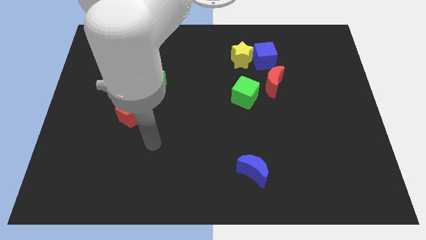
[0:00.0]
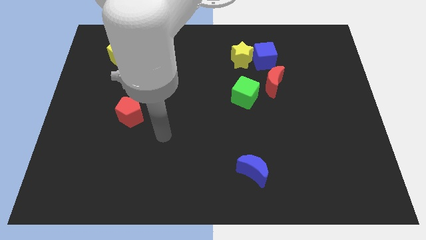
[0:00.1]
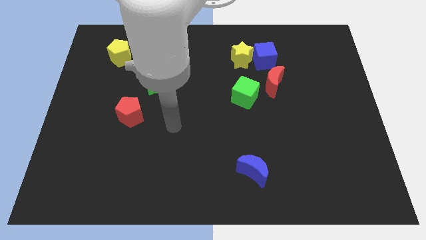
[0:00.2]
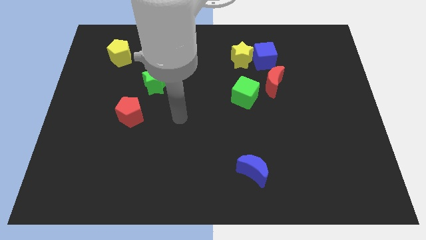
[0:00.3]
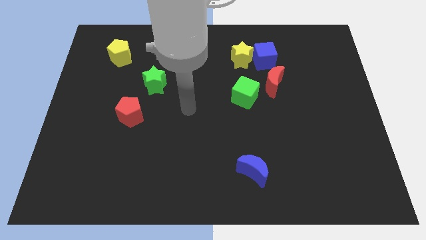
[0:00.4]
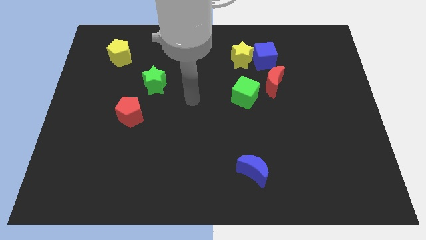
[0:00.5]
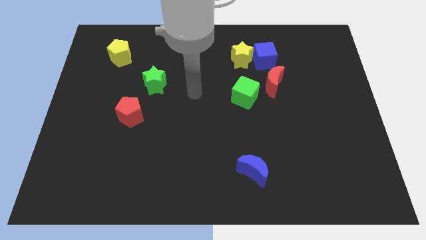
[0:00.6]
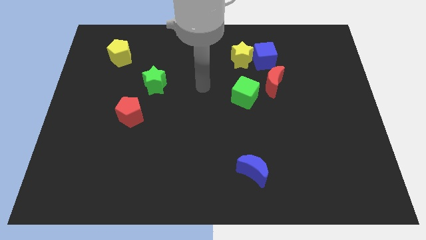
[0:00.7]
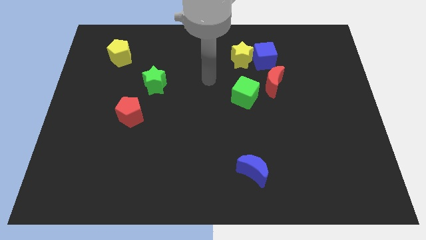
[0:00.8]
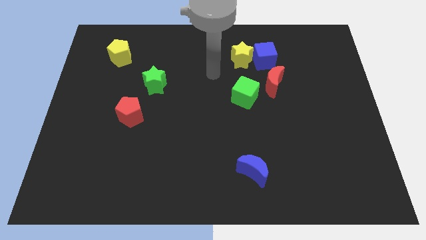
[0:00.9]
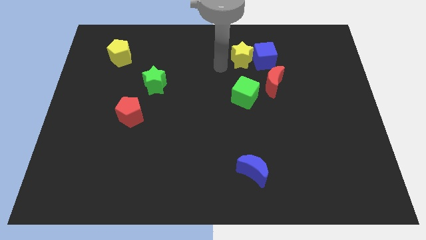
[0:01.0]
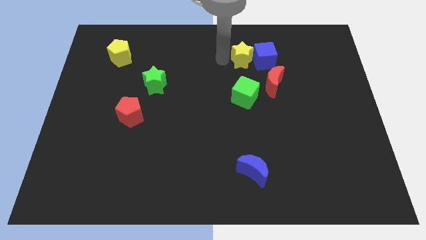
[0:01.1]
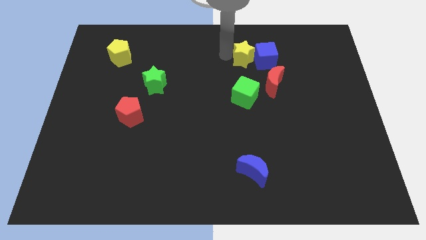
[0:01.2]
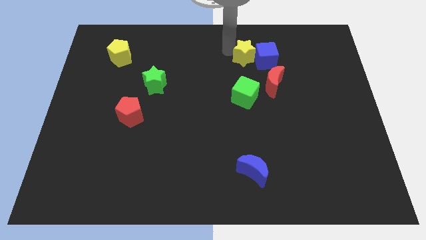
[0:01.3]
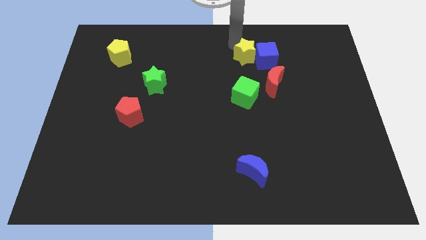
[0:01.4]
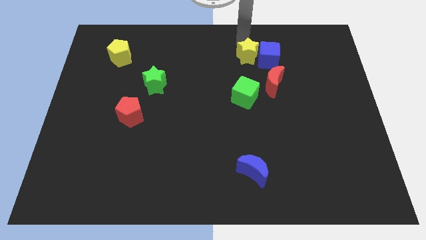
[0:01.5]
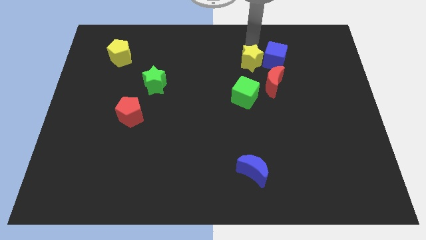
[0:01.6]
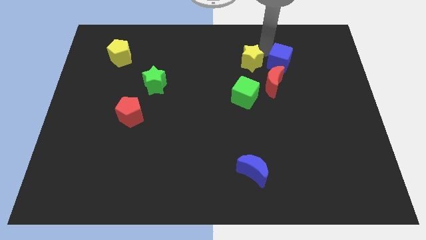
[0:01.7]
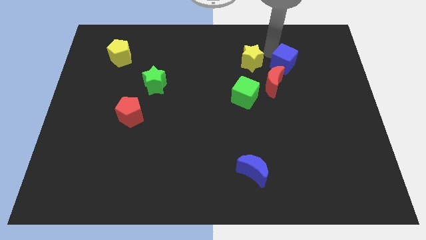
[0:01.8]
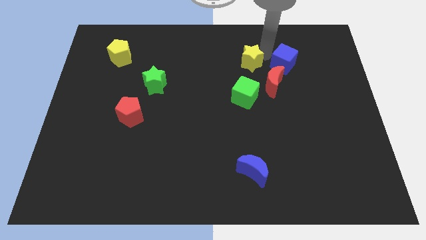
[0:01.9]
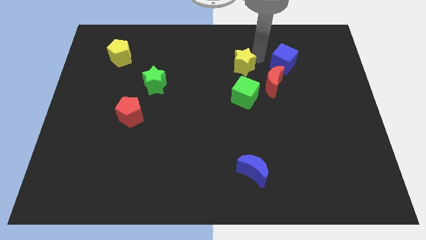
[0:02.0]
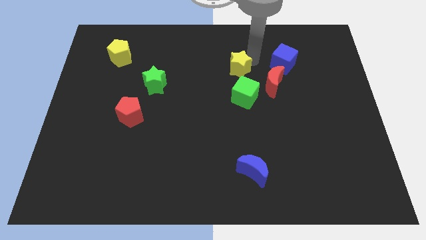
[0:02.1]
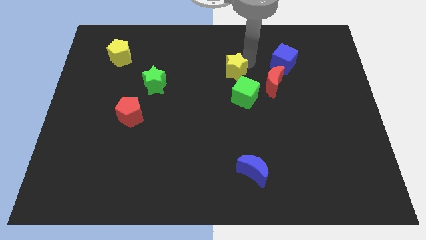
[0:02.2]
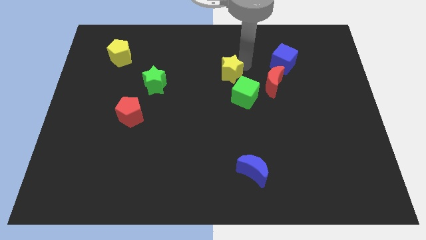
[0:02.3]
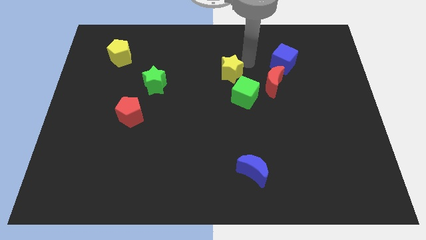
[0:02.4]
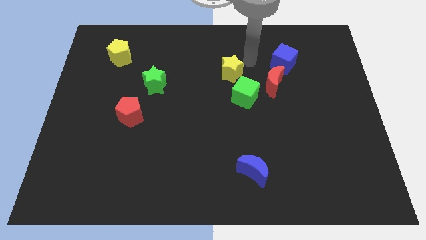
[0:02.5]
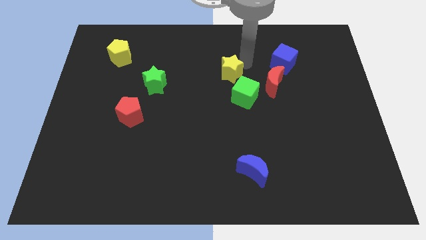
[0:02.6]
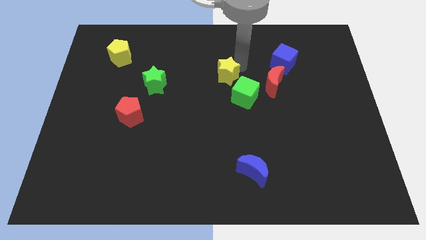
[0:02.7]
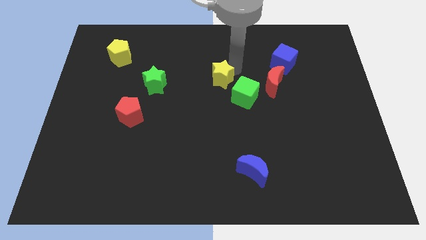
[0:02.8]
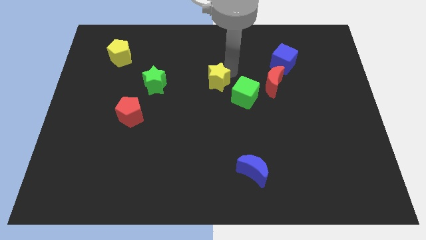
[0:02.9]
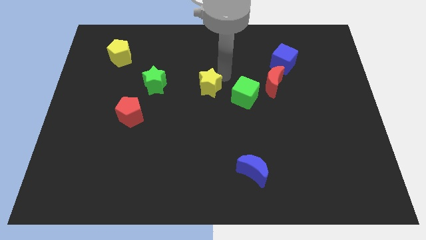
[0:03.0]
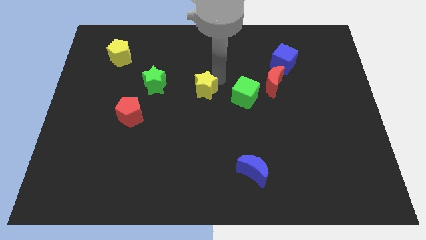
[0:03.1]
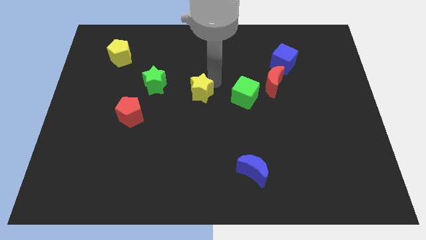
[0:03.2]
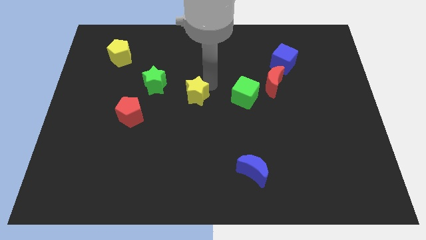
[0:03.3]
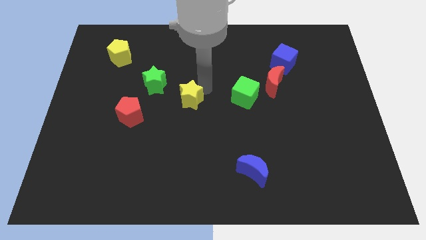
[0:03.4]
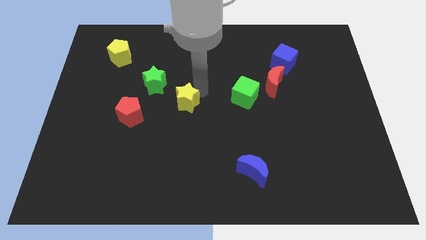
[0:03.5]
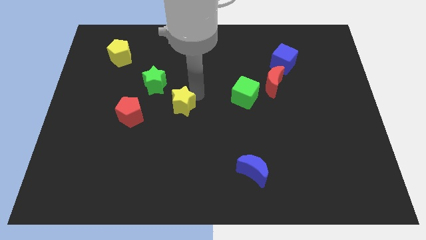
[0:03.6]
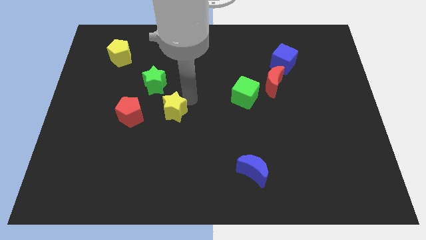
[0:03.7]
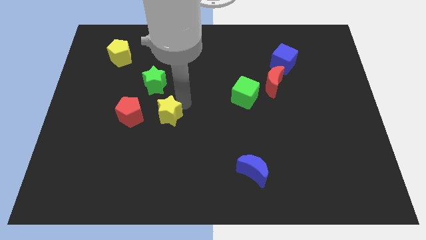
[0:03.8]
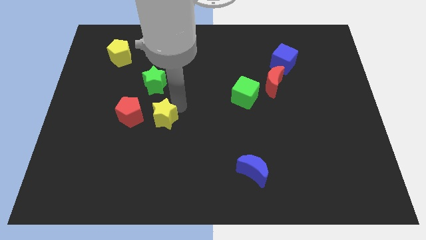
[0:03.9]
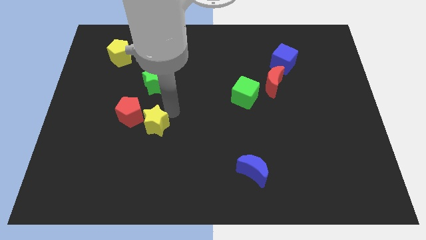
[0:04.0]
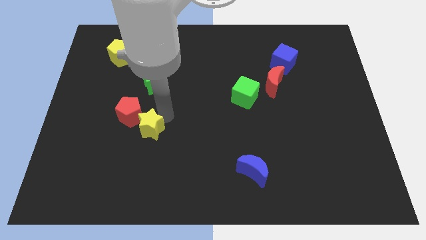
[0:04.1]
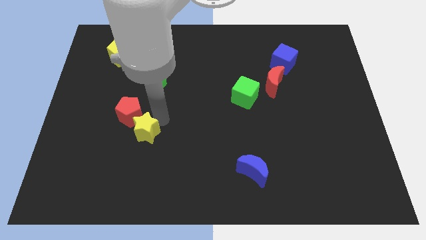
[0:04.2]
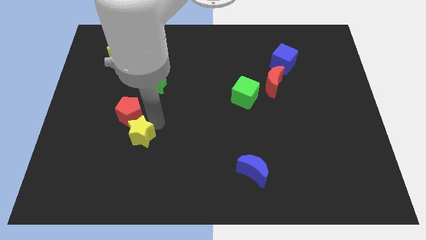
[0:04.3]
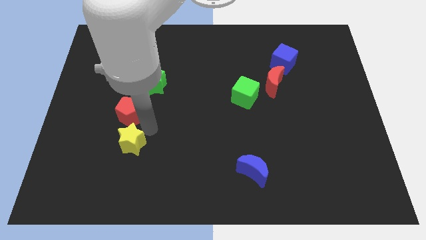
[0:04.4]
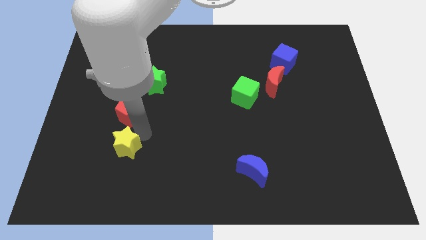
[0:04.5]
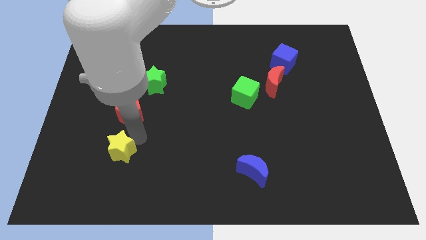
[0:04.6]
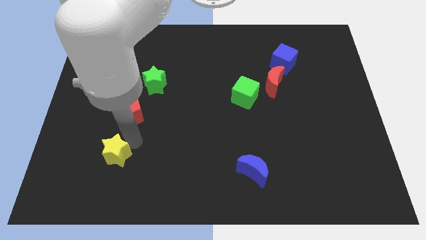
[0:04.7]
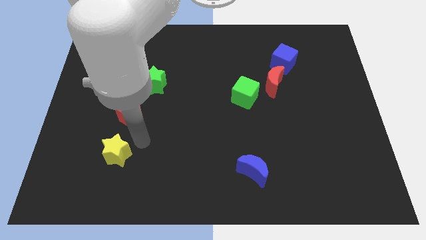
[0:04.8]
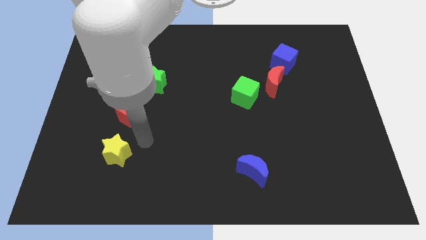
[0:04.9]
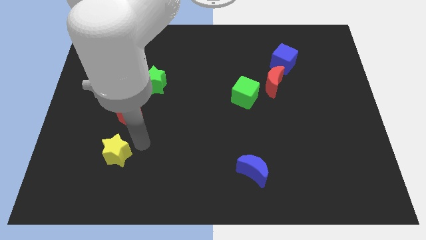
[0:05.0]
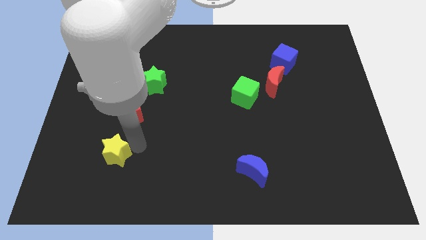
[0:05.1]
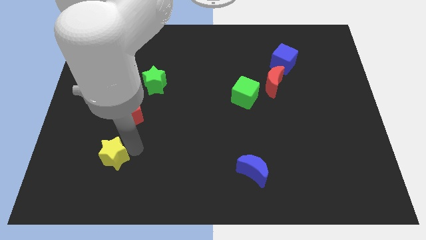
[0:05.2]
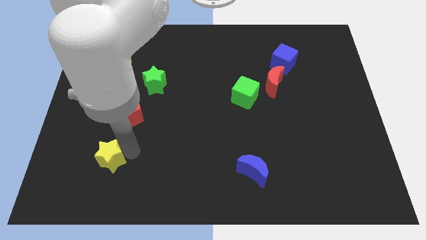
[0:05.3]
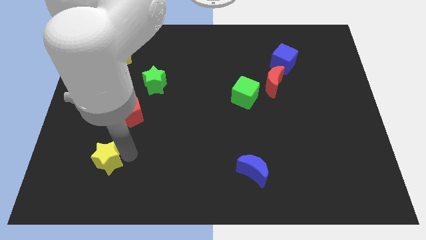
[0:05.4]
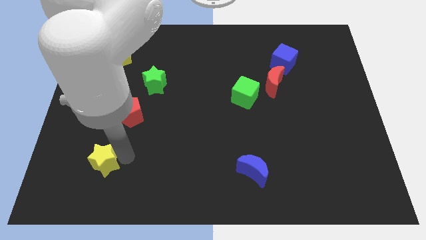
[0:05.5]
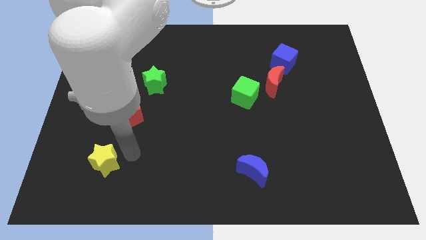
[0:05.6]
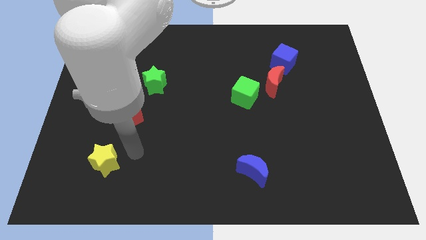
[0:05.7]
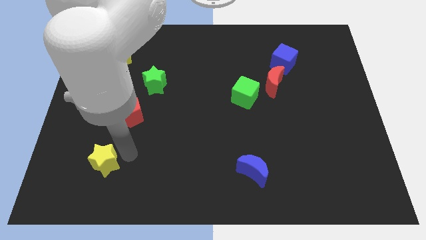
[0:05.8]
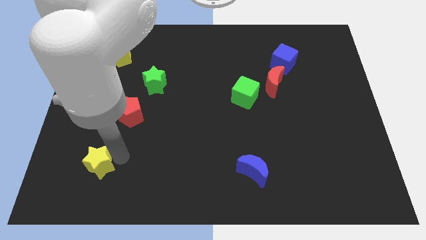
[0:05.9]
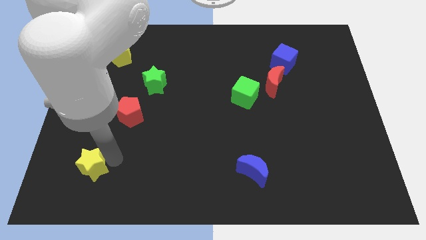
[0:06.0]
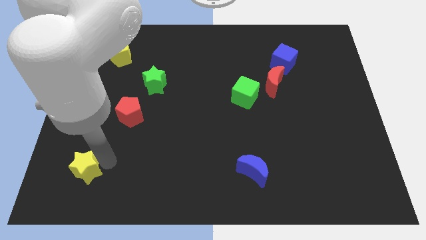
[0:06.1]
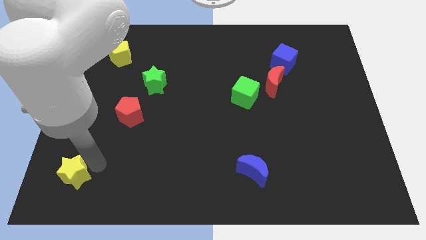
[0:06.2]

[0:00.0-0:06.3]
push the yellow star to the lower left corner
